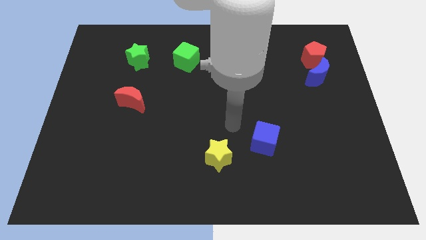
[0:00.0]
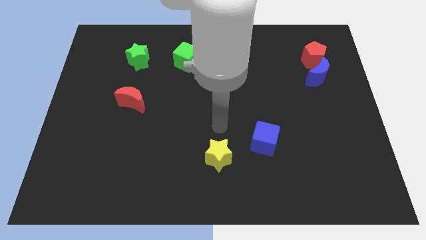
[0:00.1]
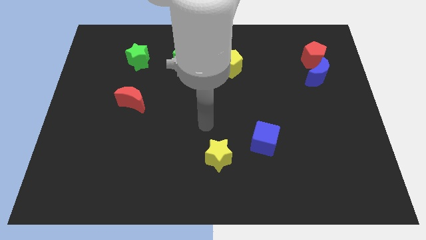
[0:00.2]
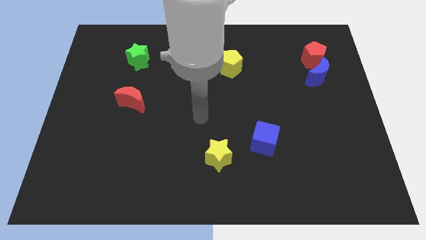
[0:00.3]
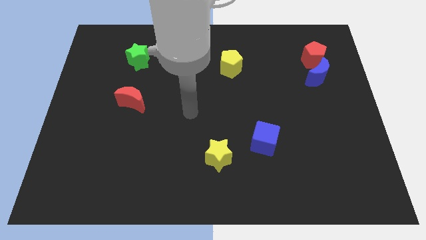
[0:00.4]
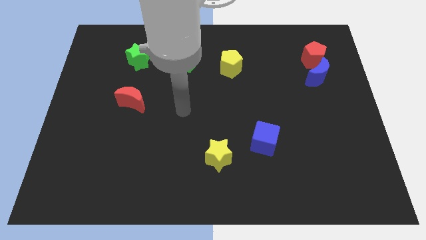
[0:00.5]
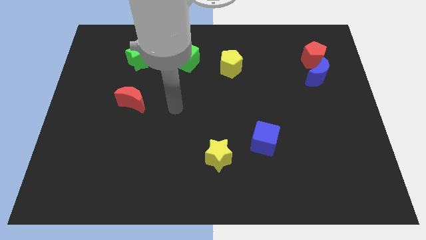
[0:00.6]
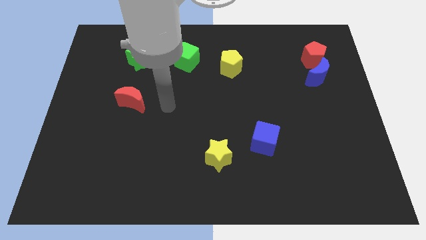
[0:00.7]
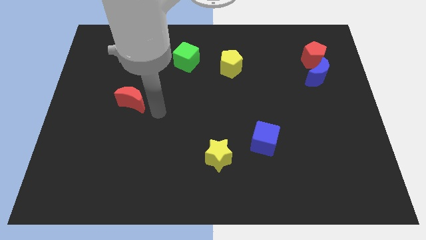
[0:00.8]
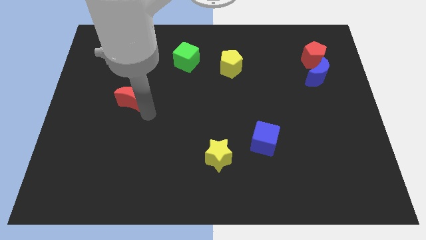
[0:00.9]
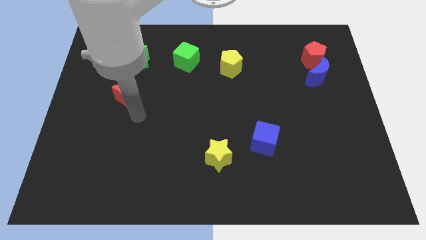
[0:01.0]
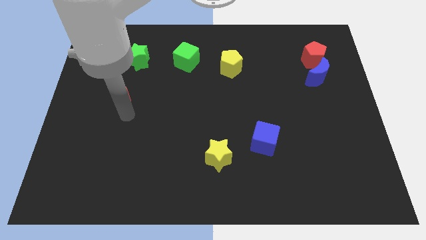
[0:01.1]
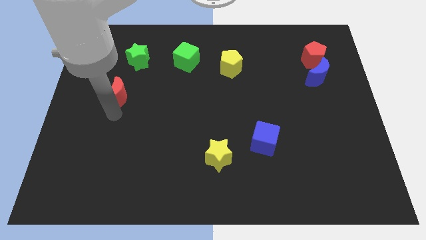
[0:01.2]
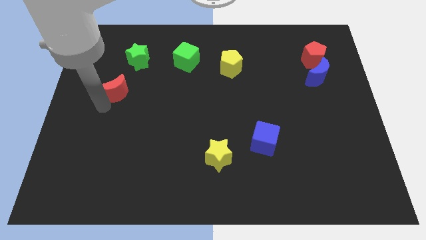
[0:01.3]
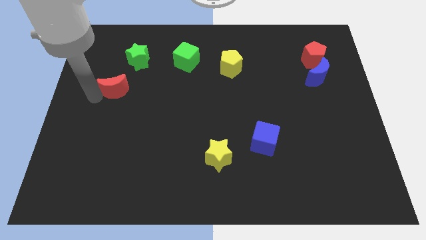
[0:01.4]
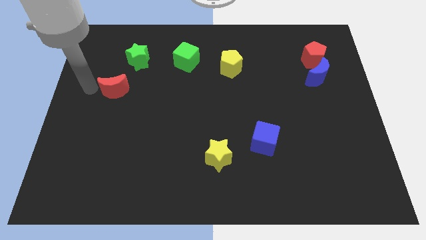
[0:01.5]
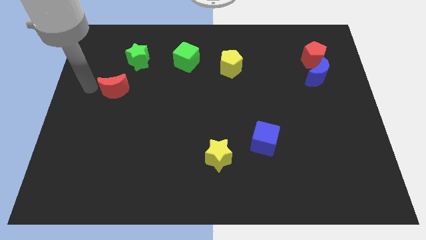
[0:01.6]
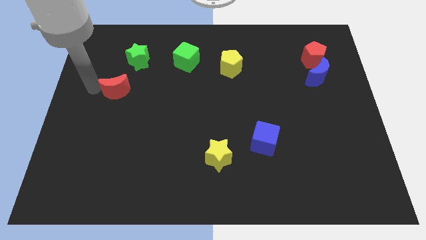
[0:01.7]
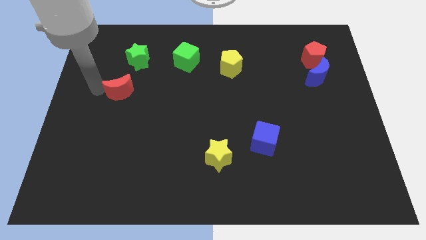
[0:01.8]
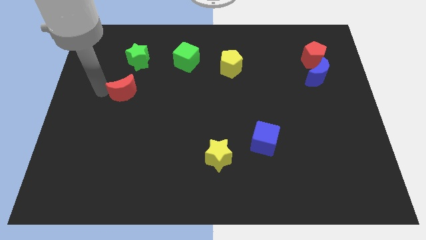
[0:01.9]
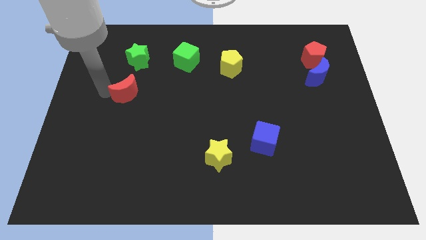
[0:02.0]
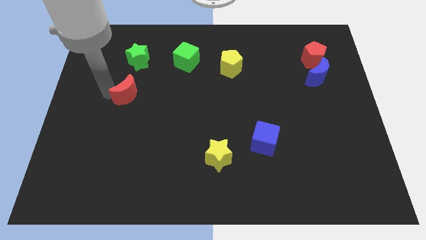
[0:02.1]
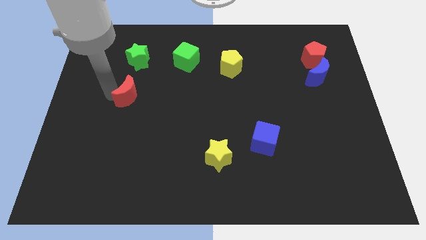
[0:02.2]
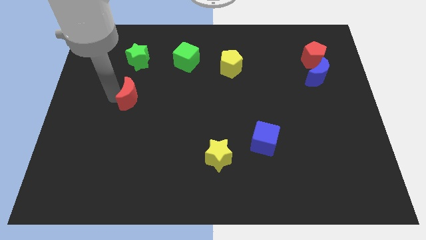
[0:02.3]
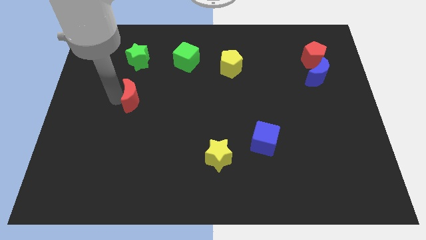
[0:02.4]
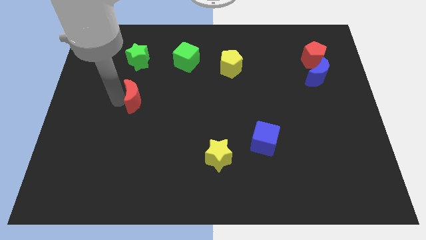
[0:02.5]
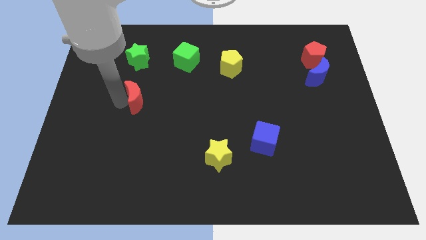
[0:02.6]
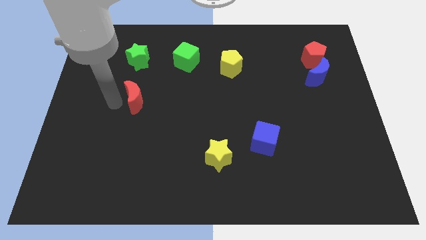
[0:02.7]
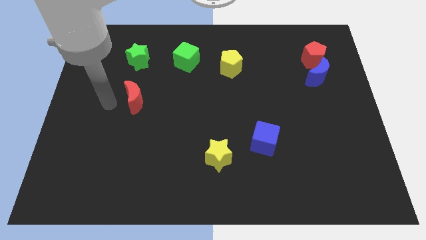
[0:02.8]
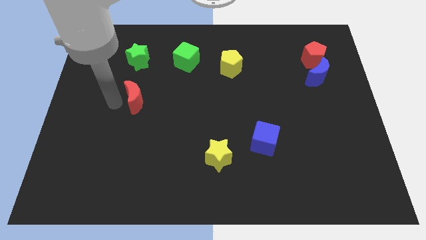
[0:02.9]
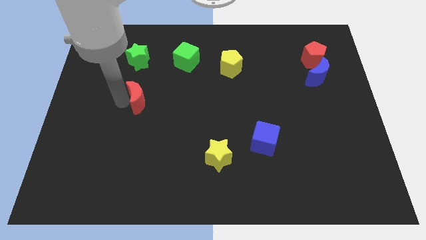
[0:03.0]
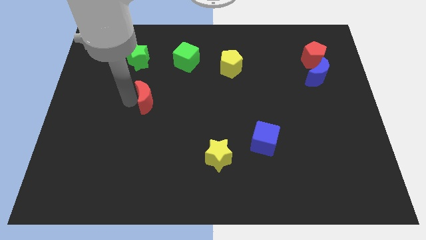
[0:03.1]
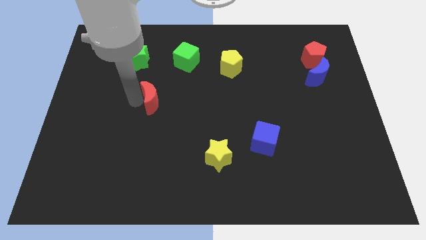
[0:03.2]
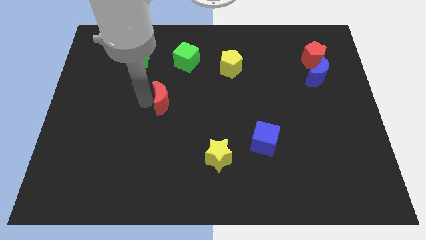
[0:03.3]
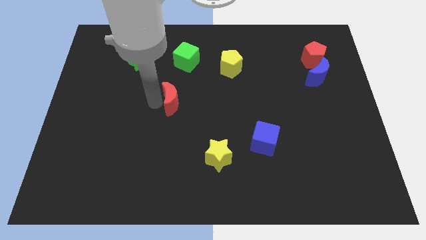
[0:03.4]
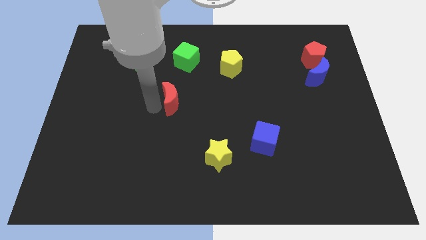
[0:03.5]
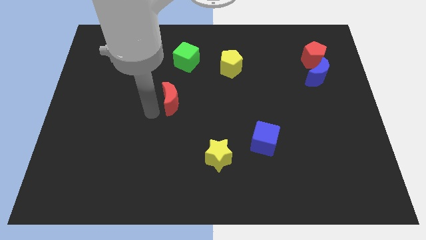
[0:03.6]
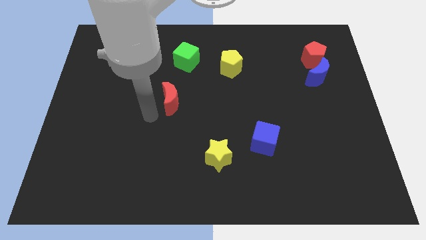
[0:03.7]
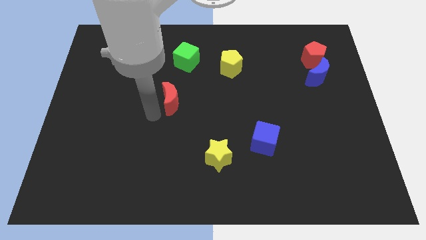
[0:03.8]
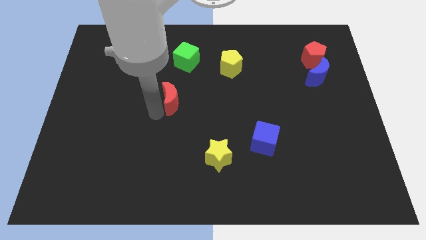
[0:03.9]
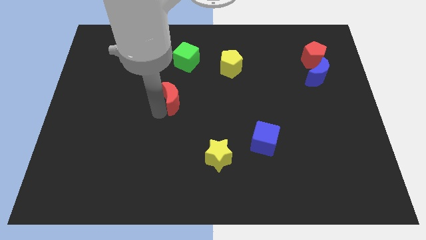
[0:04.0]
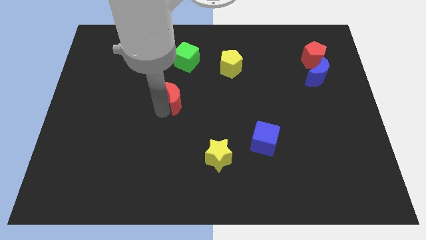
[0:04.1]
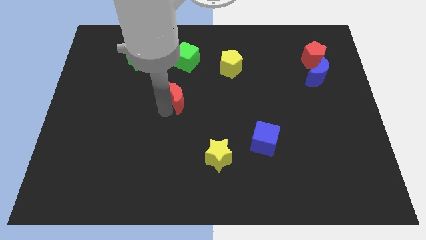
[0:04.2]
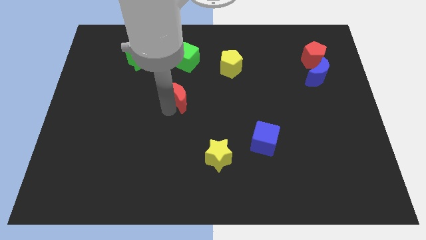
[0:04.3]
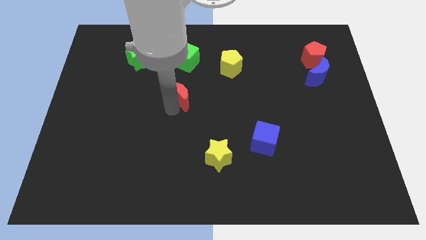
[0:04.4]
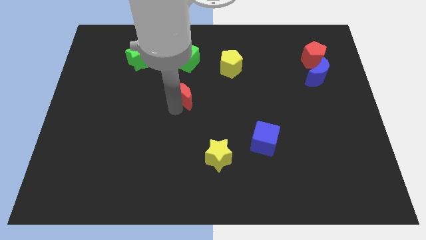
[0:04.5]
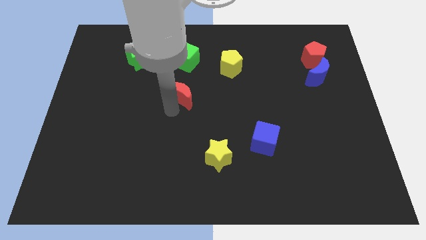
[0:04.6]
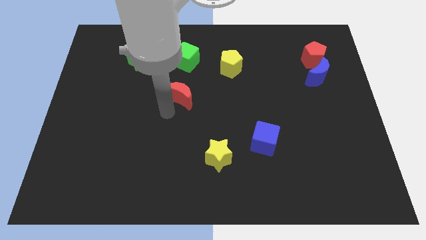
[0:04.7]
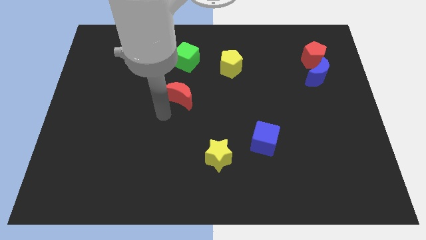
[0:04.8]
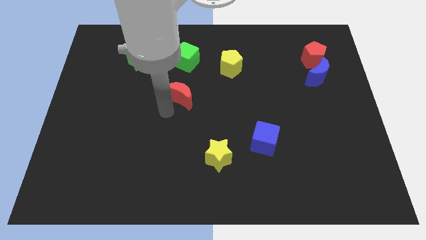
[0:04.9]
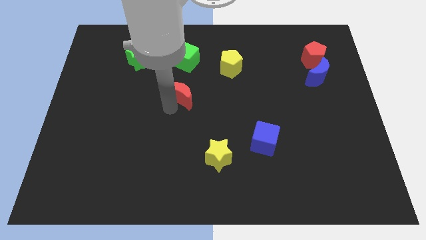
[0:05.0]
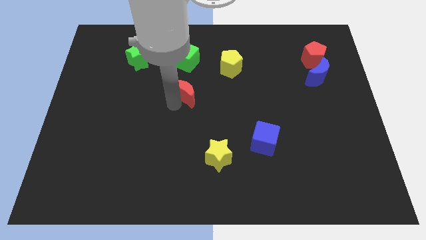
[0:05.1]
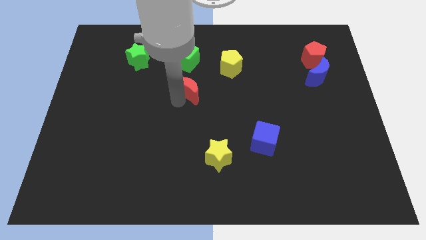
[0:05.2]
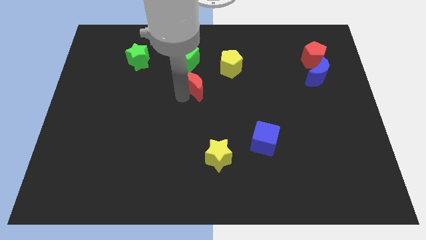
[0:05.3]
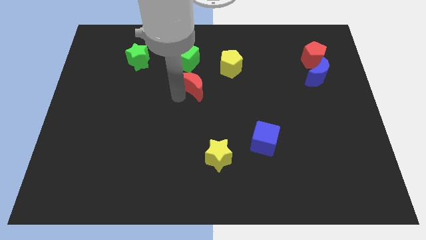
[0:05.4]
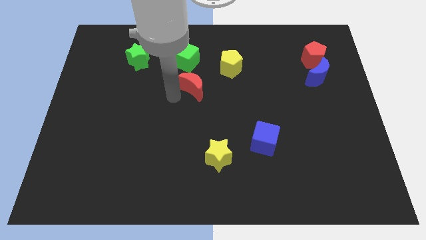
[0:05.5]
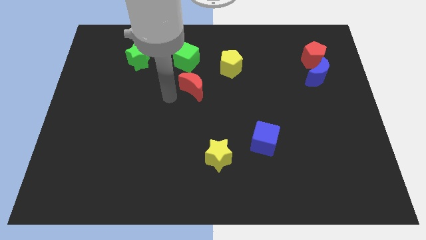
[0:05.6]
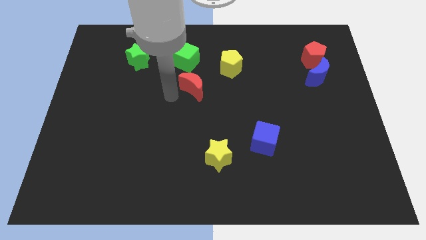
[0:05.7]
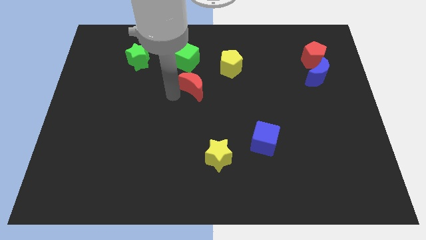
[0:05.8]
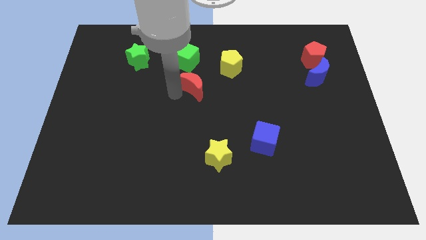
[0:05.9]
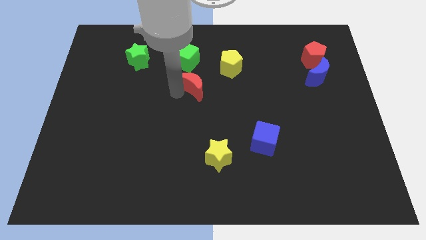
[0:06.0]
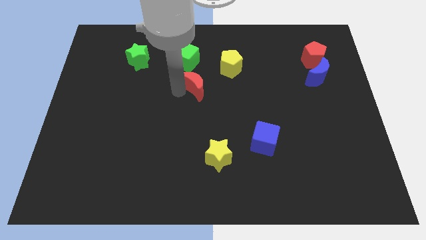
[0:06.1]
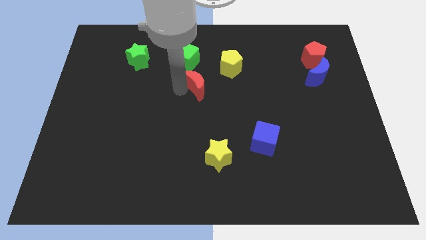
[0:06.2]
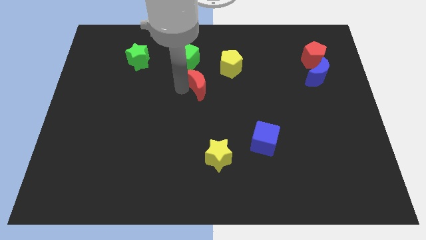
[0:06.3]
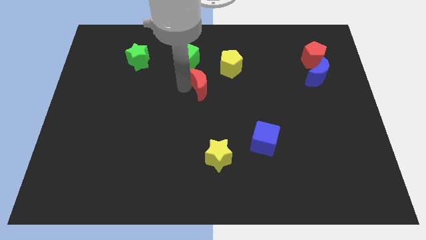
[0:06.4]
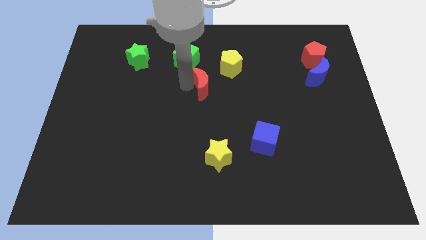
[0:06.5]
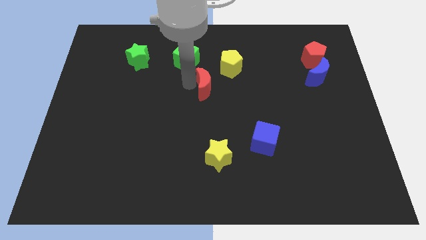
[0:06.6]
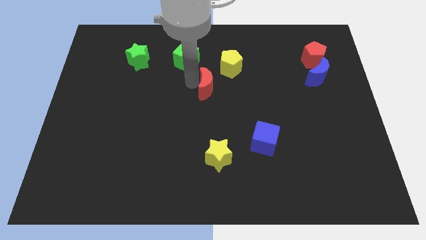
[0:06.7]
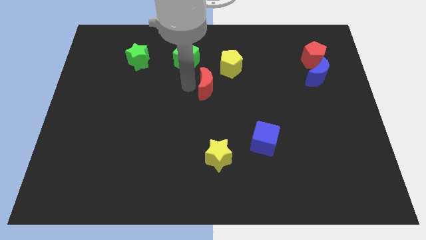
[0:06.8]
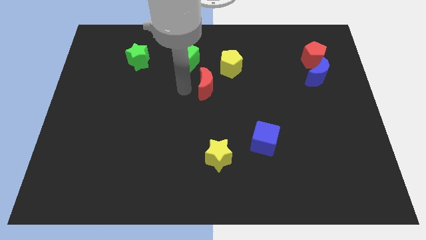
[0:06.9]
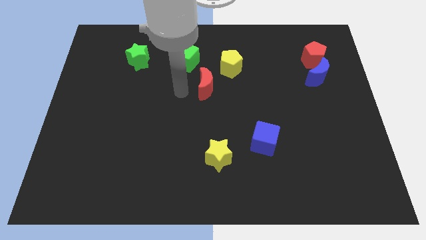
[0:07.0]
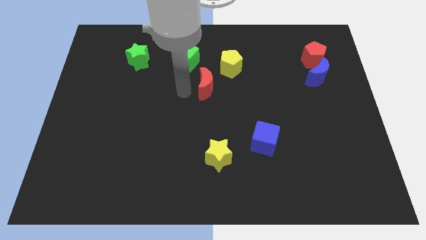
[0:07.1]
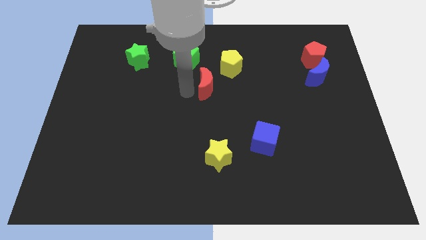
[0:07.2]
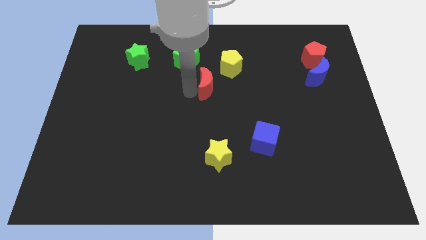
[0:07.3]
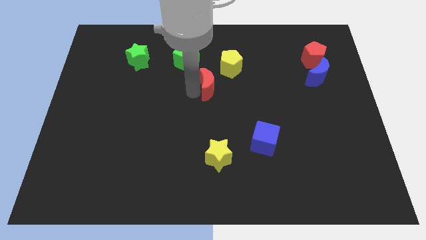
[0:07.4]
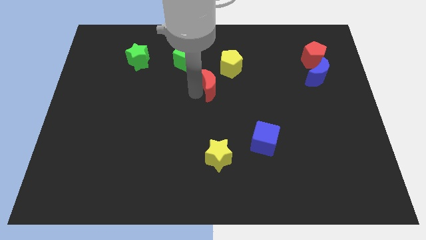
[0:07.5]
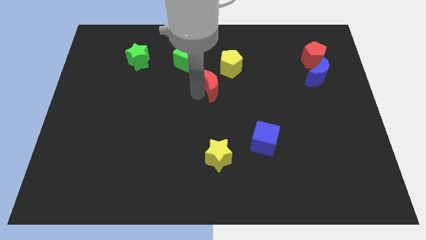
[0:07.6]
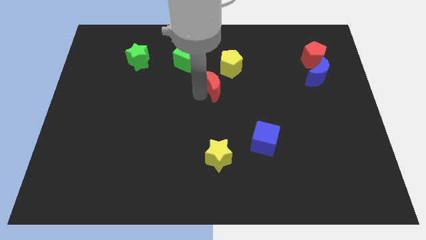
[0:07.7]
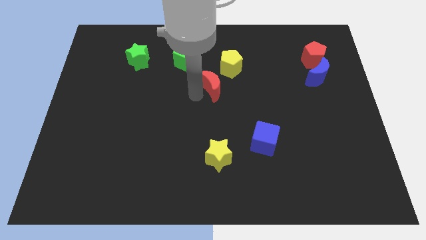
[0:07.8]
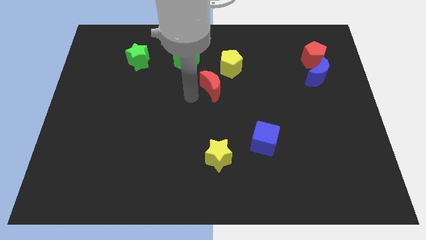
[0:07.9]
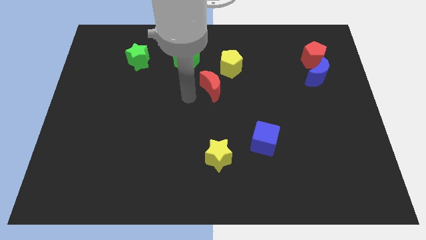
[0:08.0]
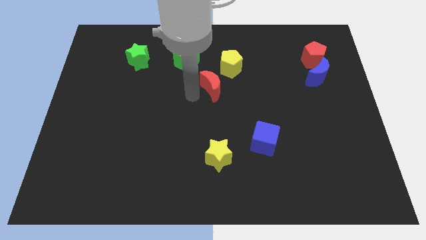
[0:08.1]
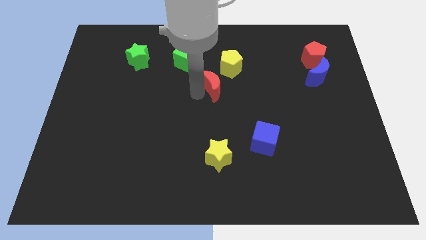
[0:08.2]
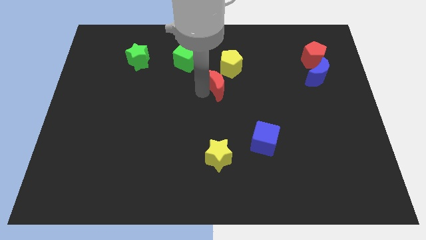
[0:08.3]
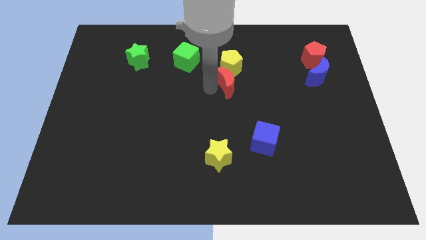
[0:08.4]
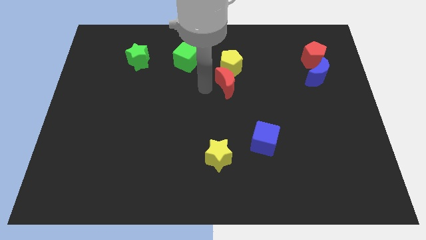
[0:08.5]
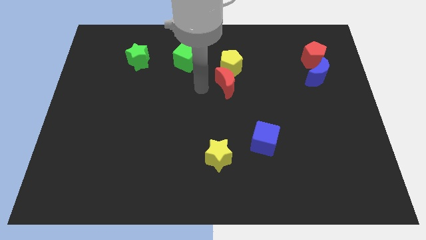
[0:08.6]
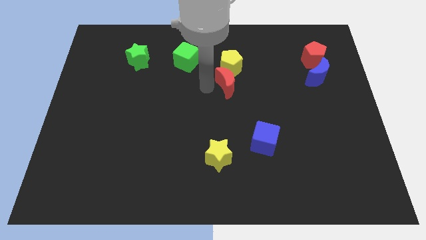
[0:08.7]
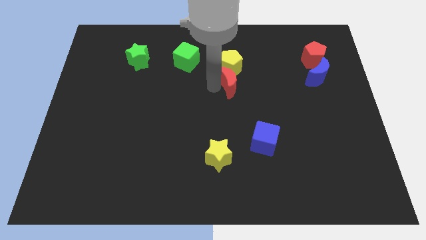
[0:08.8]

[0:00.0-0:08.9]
move the red moon diagonally down and to the right of the yellow pentagon
